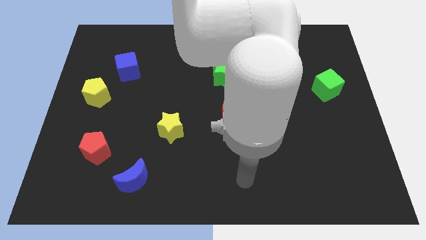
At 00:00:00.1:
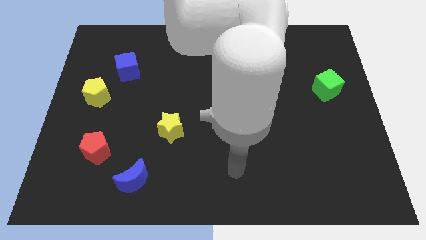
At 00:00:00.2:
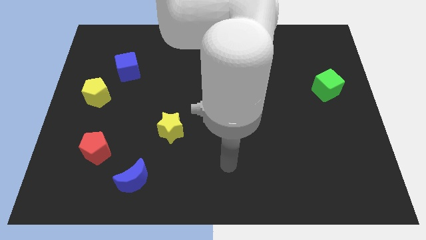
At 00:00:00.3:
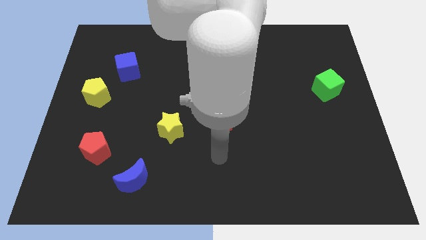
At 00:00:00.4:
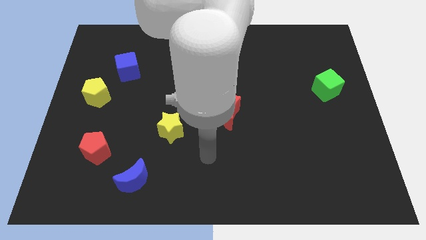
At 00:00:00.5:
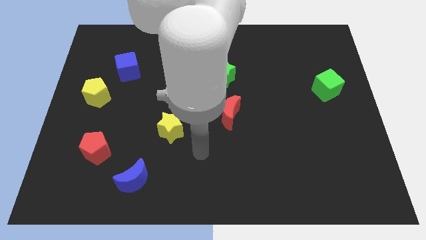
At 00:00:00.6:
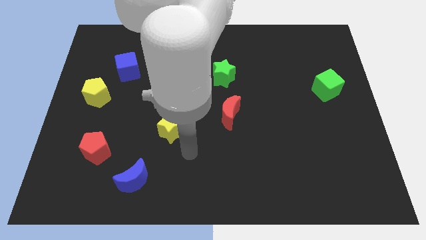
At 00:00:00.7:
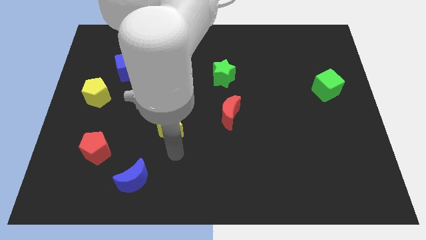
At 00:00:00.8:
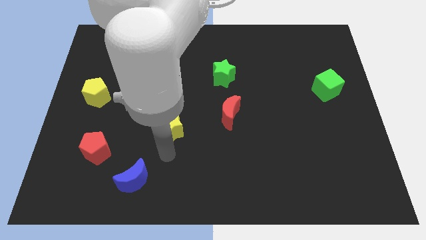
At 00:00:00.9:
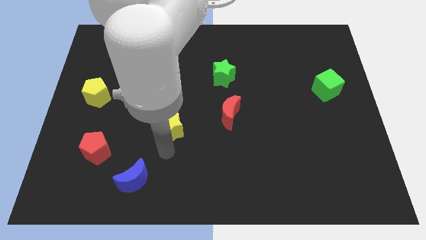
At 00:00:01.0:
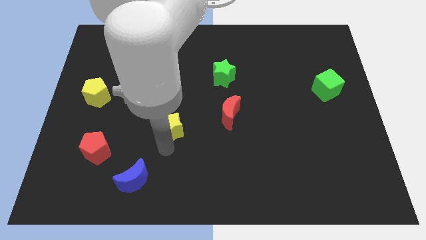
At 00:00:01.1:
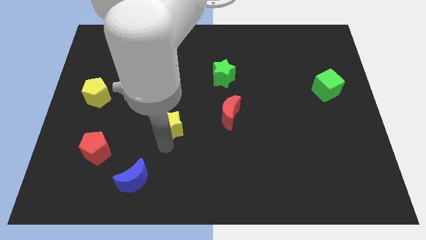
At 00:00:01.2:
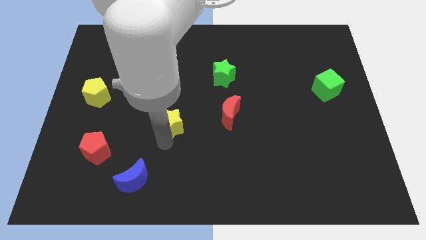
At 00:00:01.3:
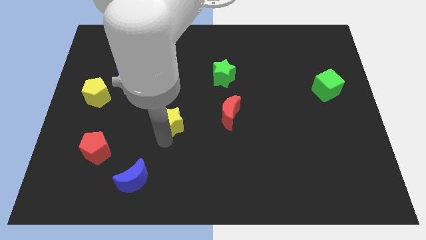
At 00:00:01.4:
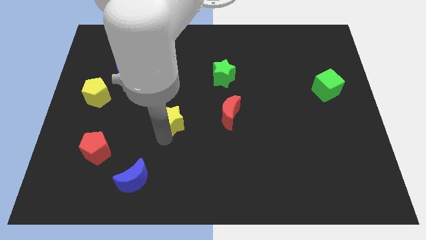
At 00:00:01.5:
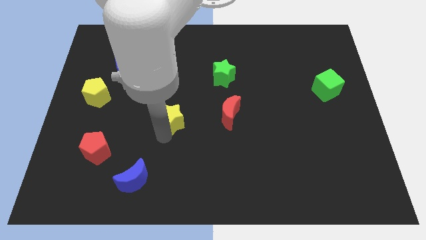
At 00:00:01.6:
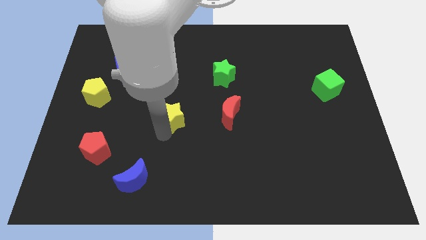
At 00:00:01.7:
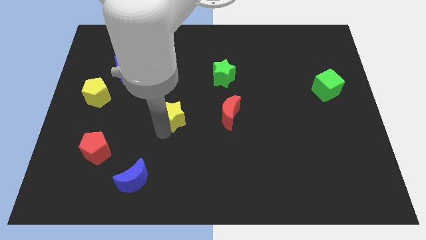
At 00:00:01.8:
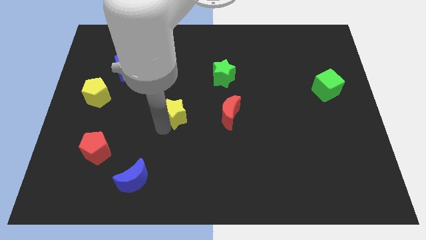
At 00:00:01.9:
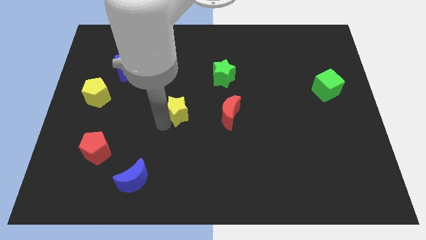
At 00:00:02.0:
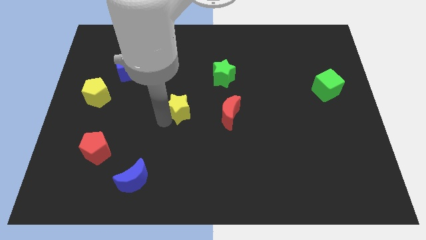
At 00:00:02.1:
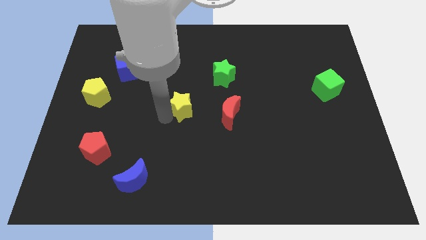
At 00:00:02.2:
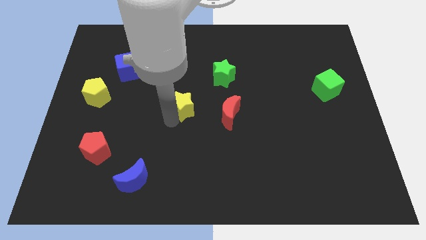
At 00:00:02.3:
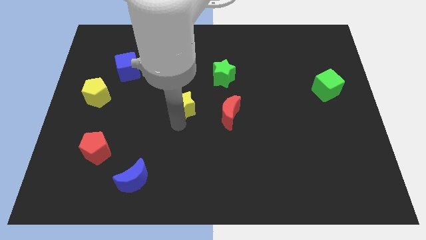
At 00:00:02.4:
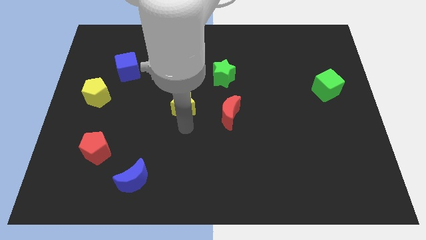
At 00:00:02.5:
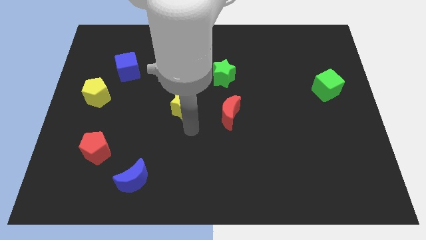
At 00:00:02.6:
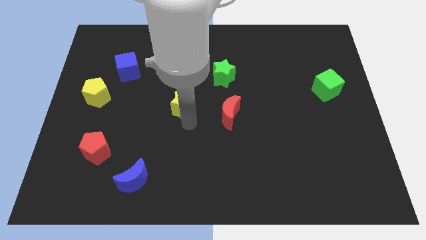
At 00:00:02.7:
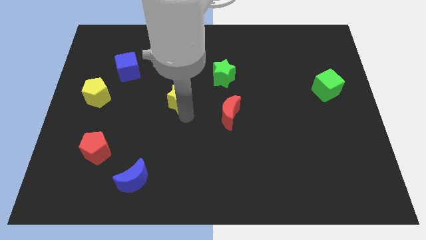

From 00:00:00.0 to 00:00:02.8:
slightly move the yellow star upwards

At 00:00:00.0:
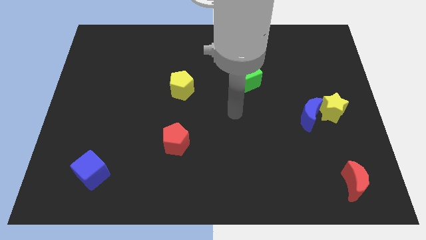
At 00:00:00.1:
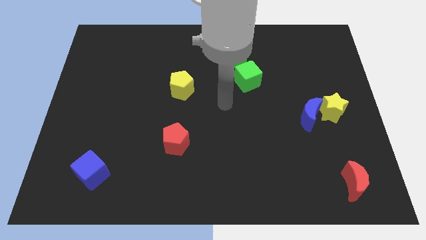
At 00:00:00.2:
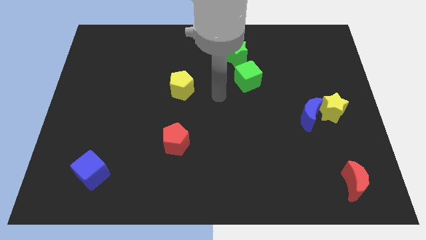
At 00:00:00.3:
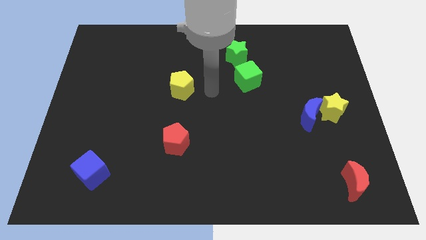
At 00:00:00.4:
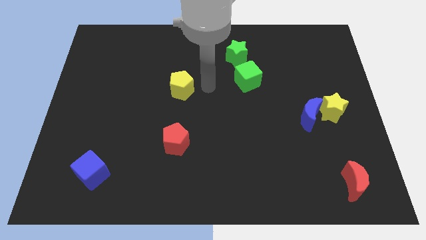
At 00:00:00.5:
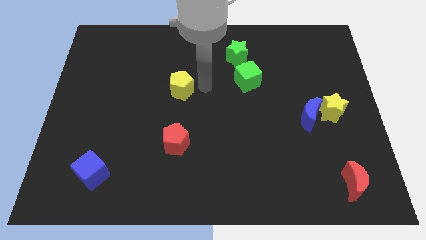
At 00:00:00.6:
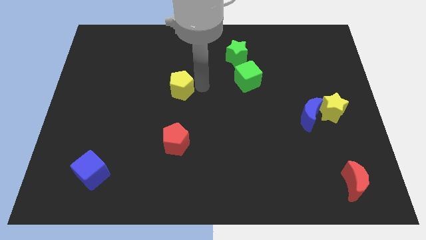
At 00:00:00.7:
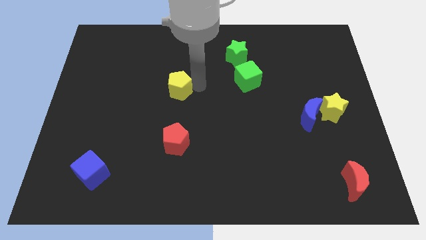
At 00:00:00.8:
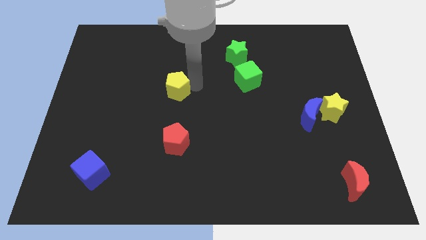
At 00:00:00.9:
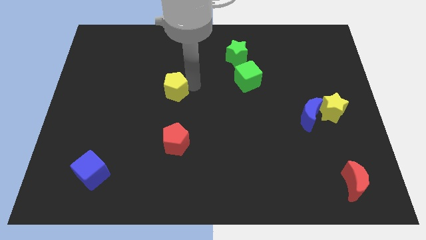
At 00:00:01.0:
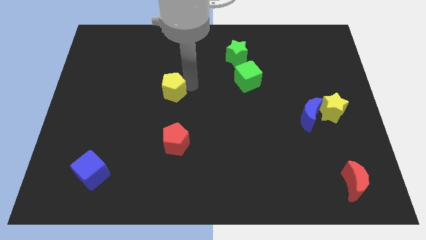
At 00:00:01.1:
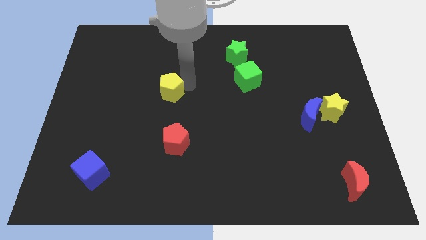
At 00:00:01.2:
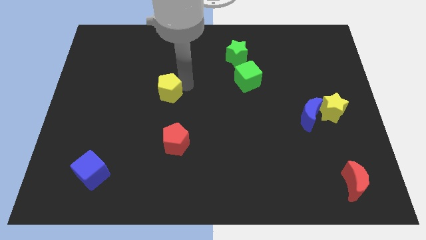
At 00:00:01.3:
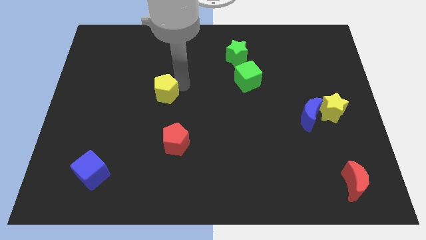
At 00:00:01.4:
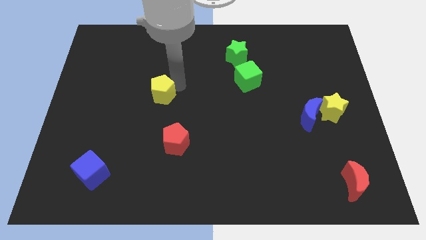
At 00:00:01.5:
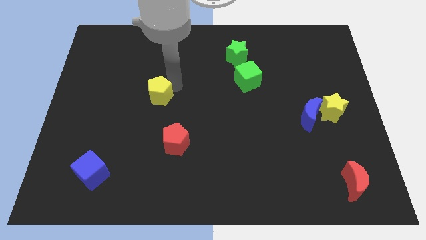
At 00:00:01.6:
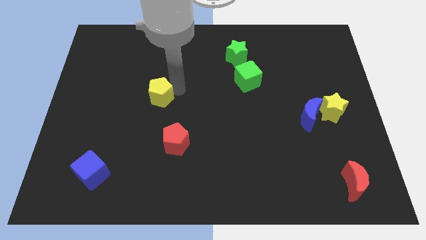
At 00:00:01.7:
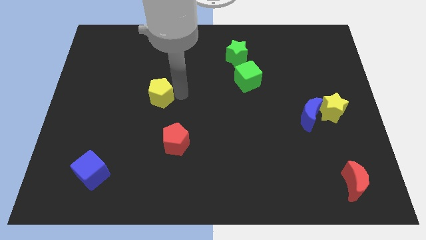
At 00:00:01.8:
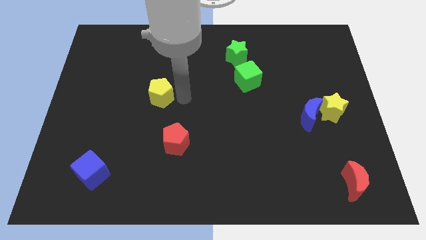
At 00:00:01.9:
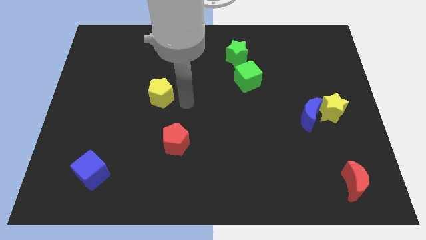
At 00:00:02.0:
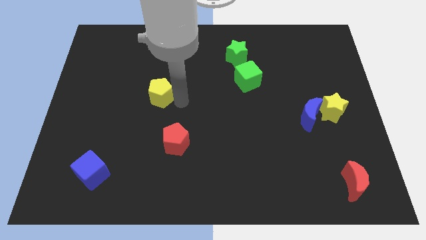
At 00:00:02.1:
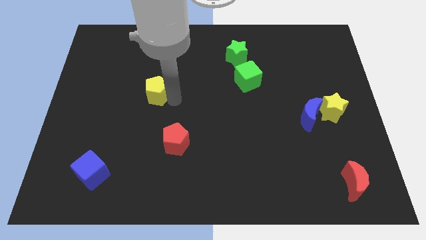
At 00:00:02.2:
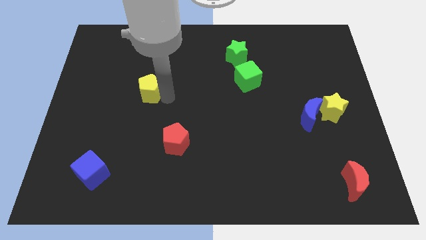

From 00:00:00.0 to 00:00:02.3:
move the yellow pentagon left slightly

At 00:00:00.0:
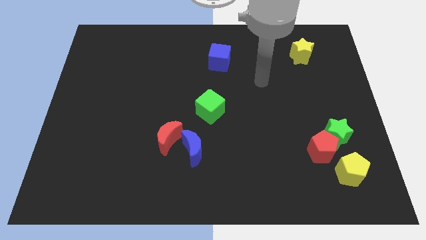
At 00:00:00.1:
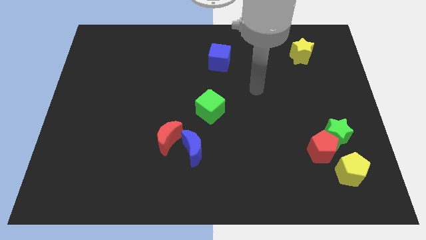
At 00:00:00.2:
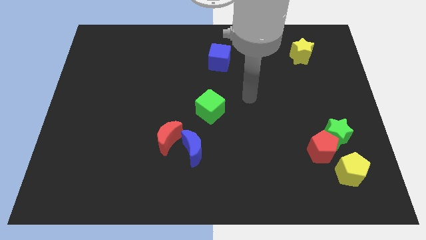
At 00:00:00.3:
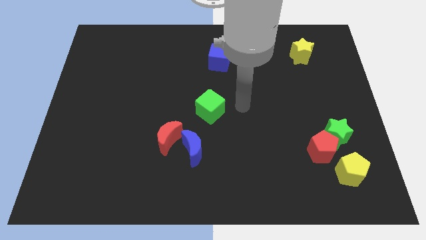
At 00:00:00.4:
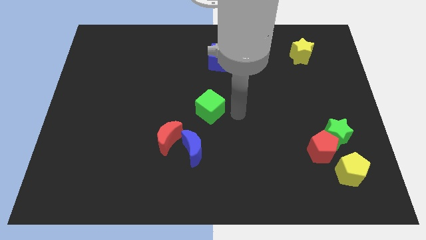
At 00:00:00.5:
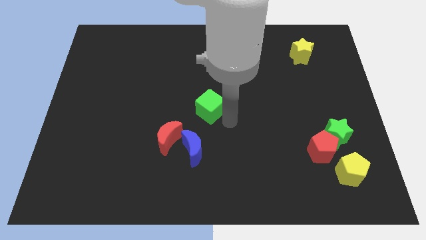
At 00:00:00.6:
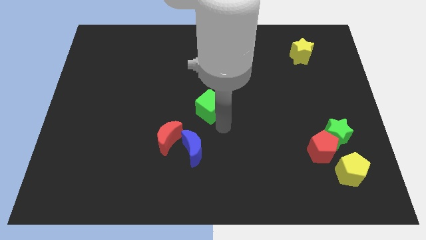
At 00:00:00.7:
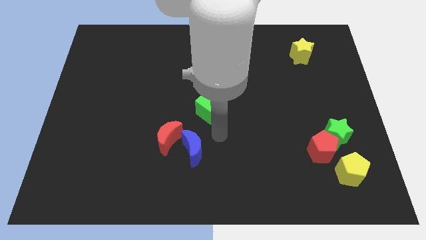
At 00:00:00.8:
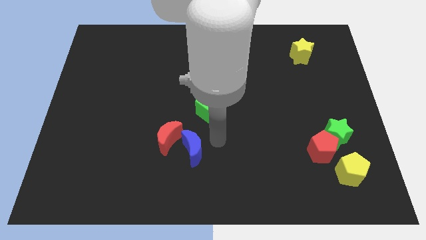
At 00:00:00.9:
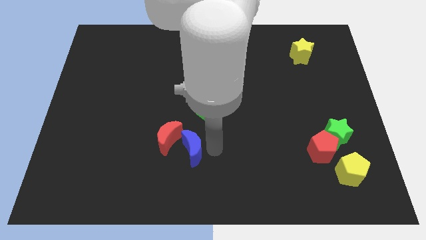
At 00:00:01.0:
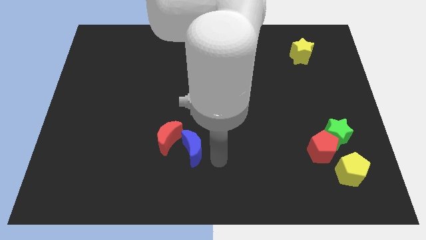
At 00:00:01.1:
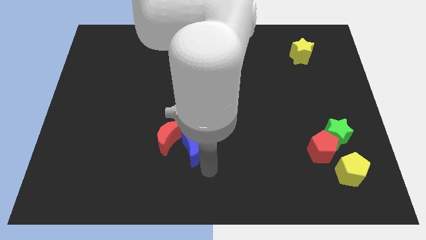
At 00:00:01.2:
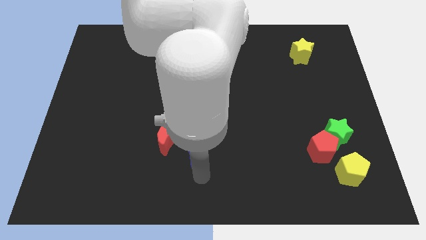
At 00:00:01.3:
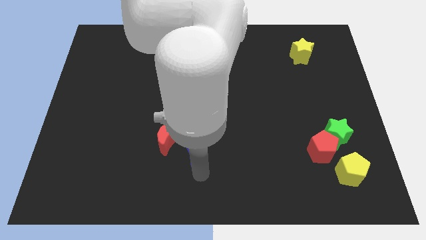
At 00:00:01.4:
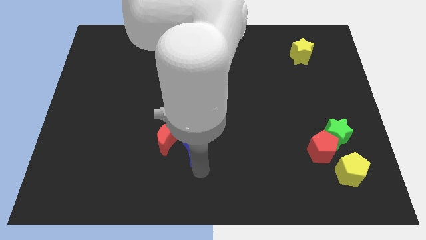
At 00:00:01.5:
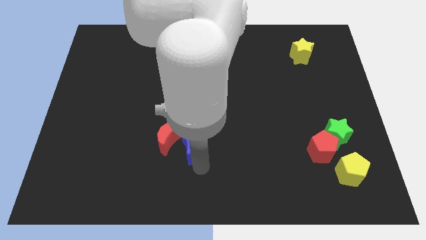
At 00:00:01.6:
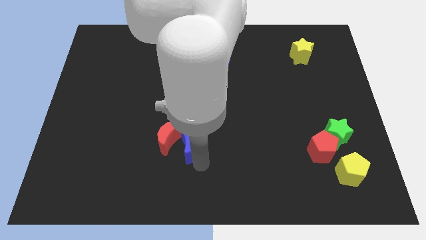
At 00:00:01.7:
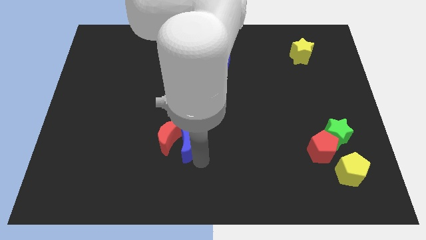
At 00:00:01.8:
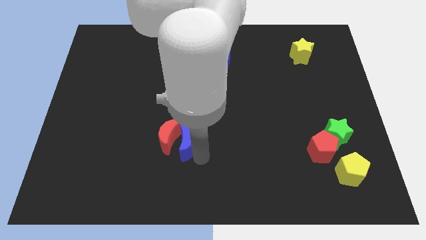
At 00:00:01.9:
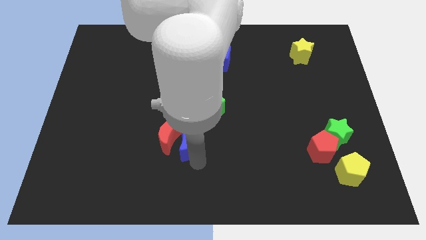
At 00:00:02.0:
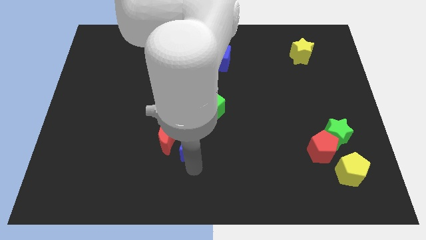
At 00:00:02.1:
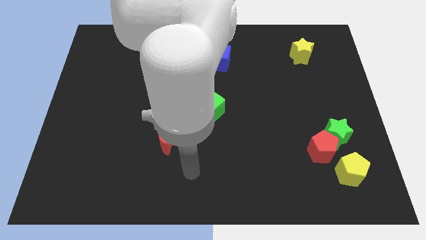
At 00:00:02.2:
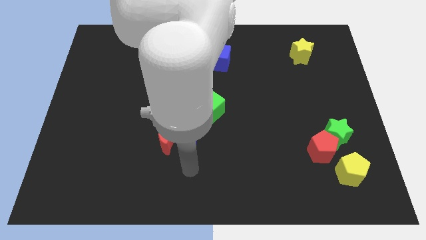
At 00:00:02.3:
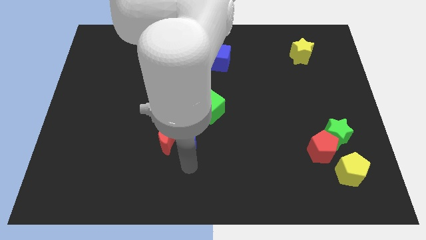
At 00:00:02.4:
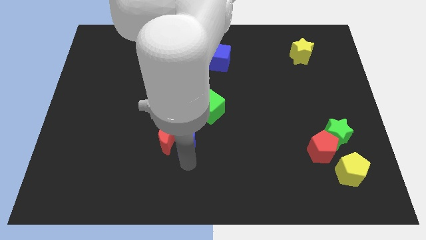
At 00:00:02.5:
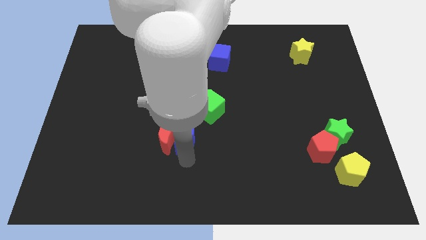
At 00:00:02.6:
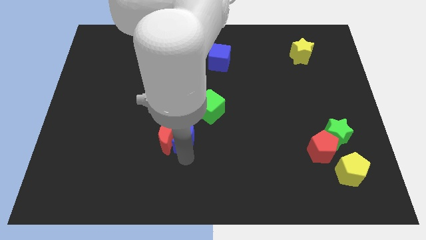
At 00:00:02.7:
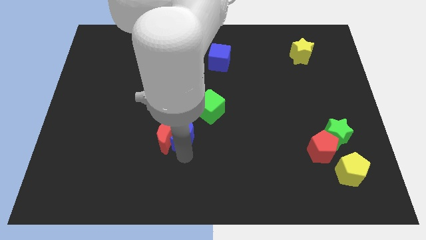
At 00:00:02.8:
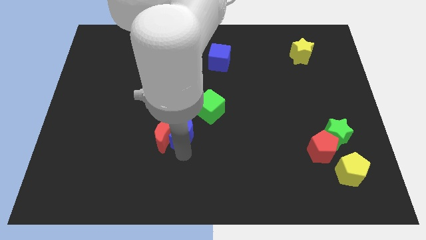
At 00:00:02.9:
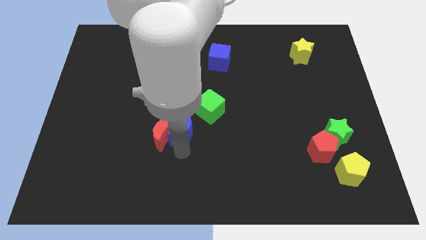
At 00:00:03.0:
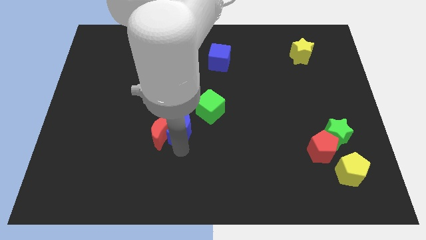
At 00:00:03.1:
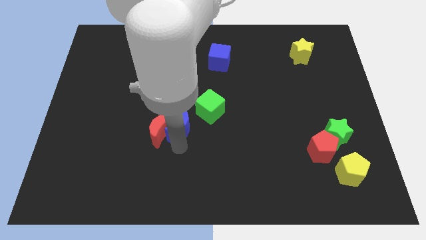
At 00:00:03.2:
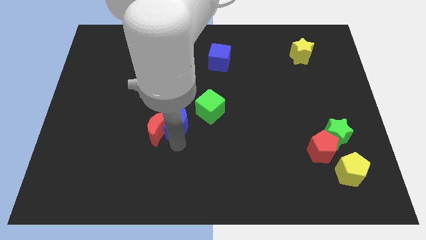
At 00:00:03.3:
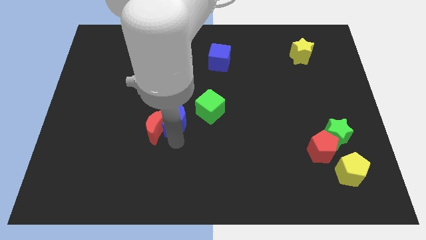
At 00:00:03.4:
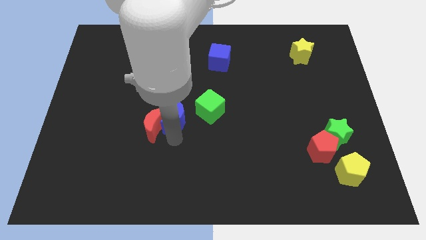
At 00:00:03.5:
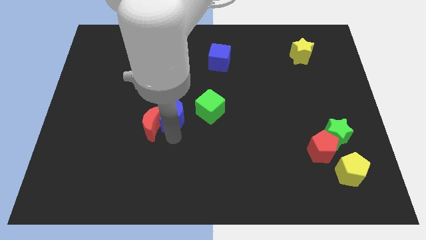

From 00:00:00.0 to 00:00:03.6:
slide the blue moon somewhat upwards
